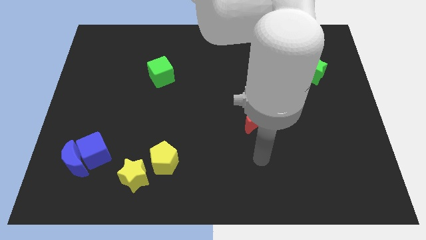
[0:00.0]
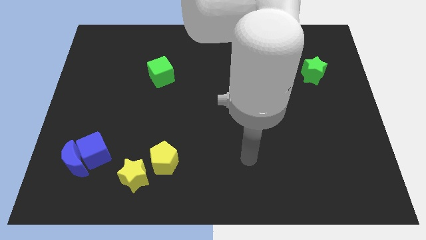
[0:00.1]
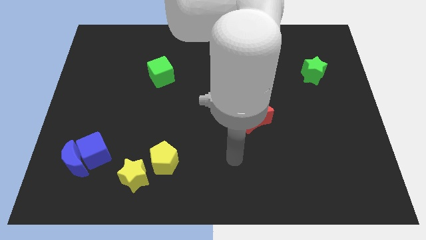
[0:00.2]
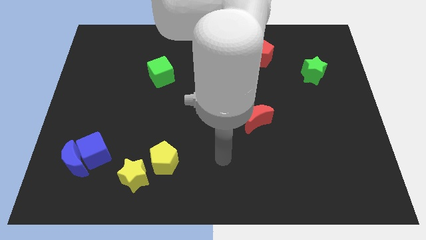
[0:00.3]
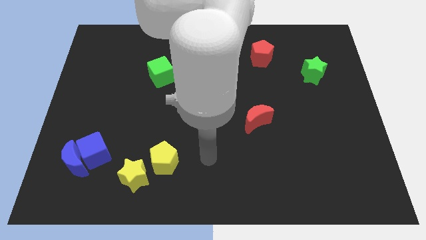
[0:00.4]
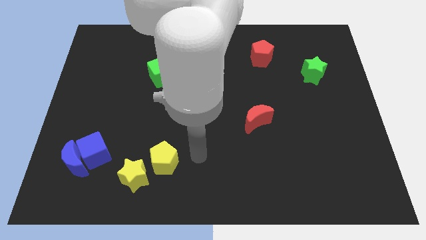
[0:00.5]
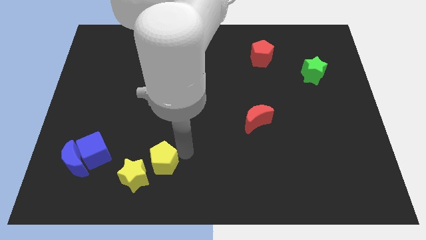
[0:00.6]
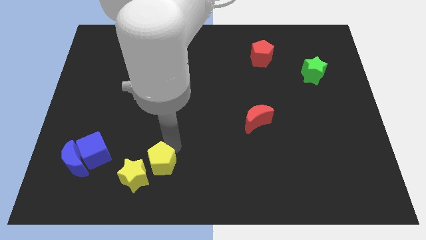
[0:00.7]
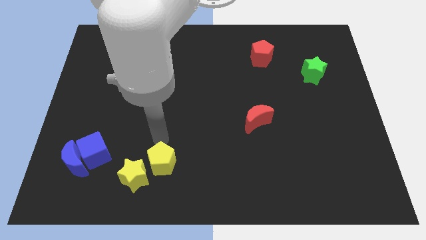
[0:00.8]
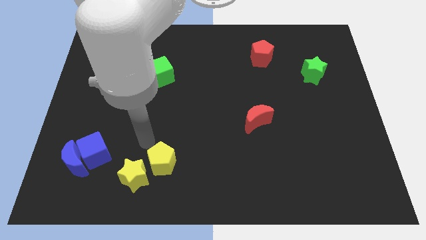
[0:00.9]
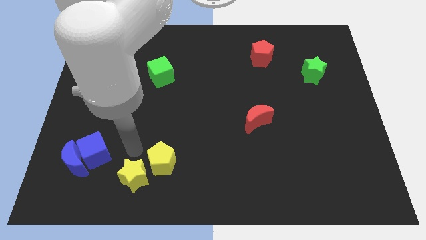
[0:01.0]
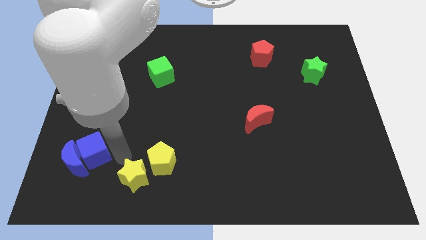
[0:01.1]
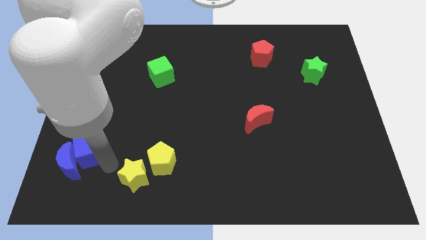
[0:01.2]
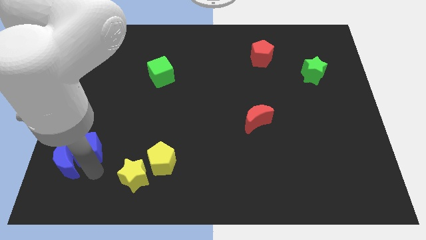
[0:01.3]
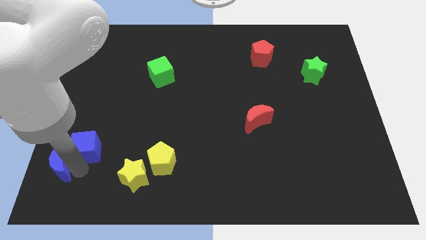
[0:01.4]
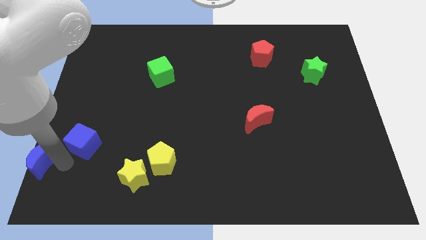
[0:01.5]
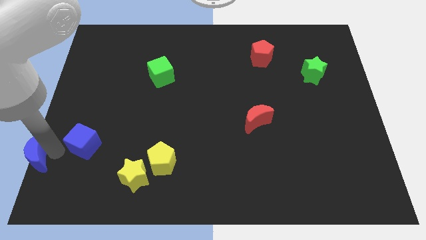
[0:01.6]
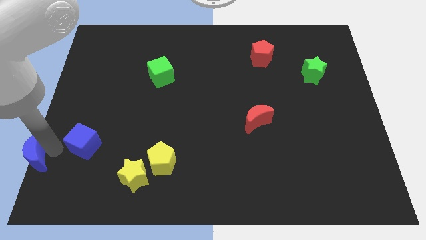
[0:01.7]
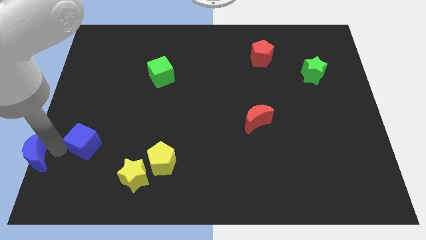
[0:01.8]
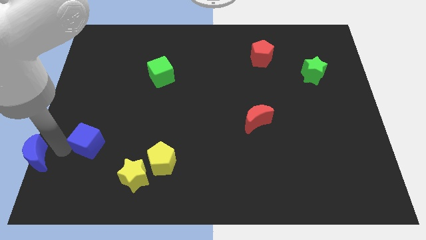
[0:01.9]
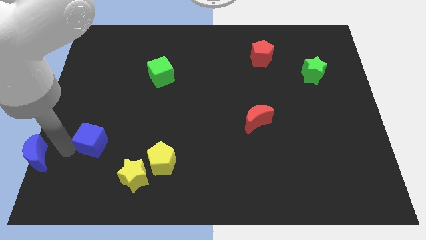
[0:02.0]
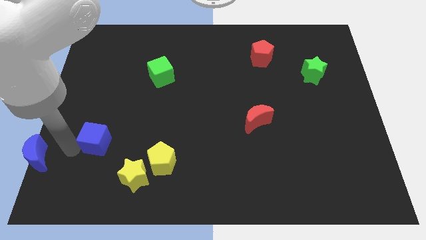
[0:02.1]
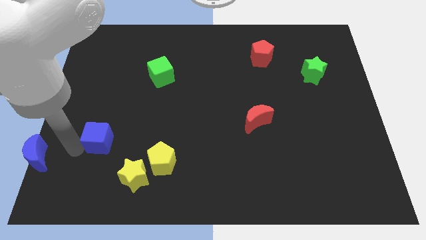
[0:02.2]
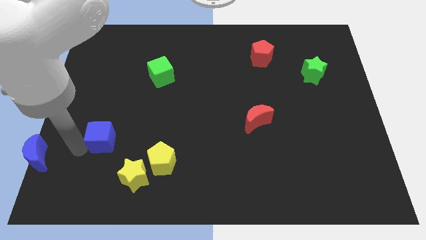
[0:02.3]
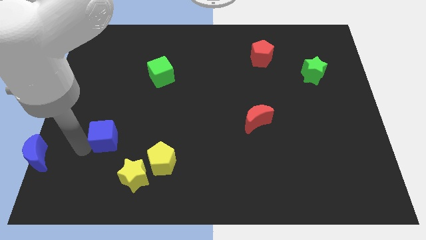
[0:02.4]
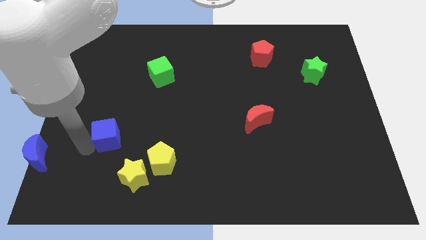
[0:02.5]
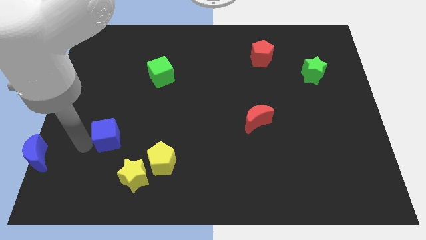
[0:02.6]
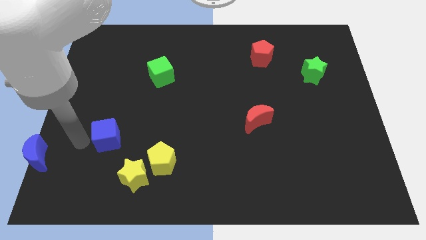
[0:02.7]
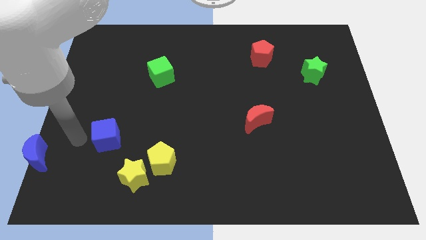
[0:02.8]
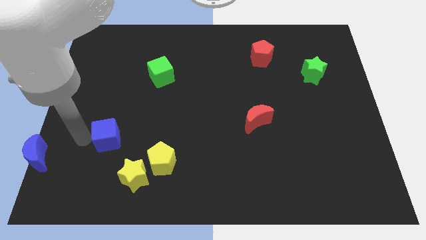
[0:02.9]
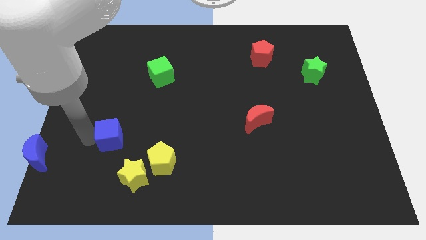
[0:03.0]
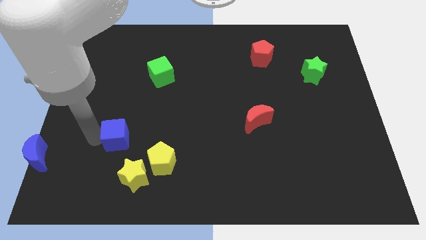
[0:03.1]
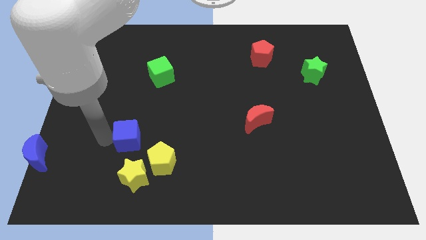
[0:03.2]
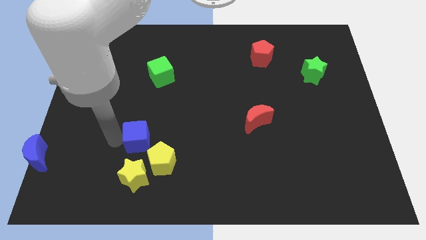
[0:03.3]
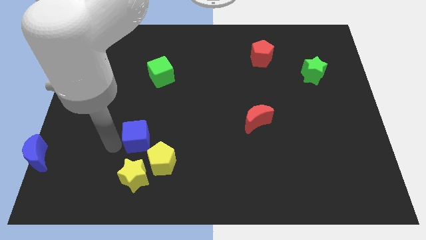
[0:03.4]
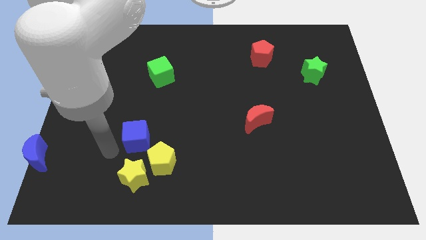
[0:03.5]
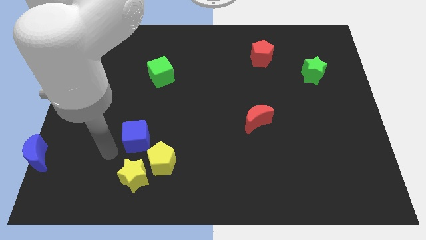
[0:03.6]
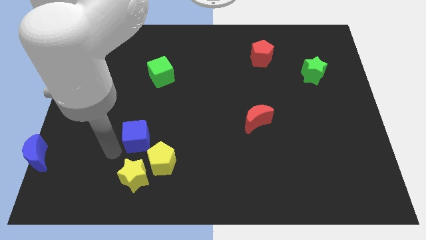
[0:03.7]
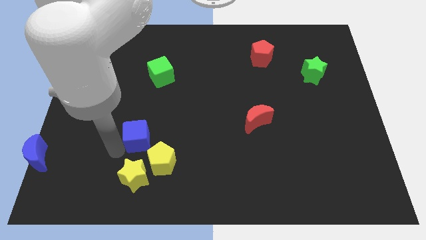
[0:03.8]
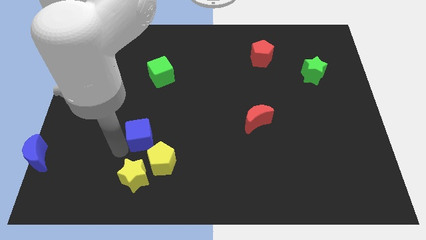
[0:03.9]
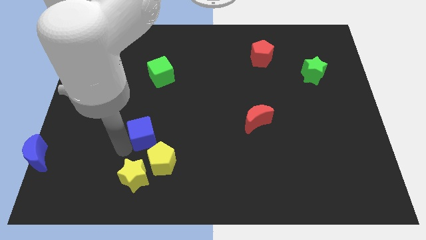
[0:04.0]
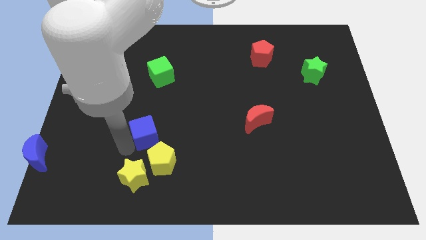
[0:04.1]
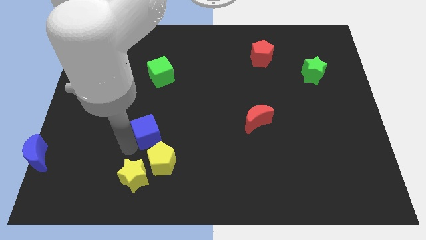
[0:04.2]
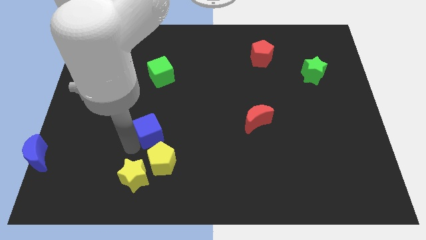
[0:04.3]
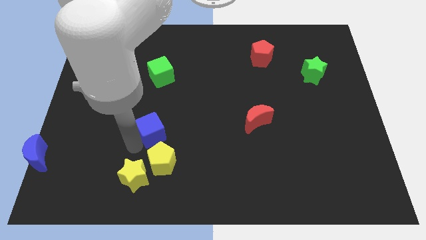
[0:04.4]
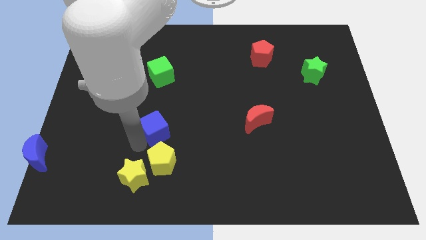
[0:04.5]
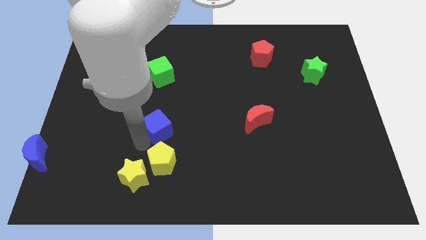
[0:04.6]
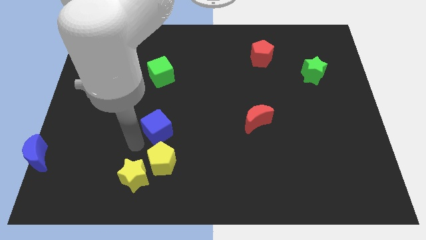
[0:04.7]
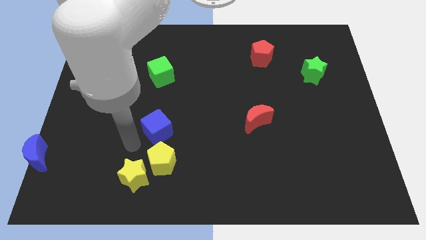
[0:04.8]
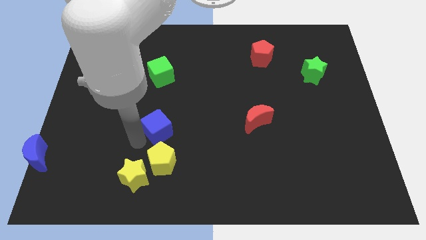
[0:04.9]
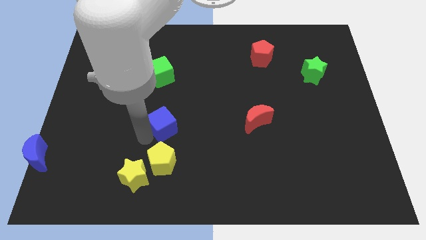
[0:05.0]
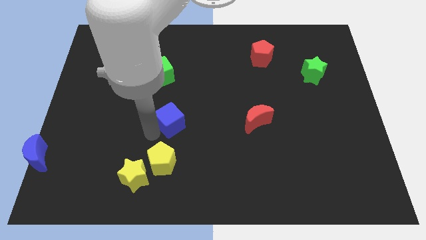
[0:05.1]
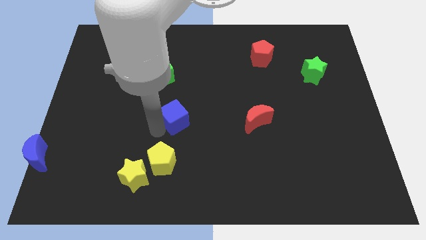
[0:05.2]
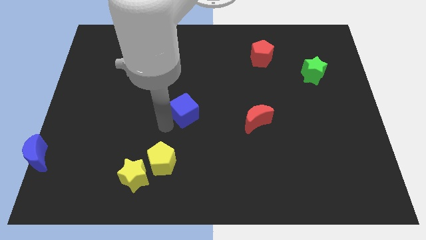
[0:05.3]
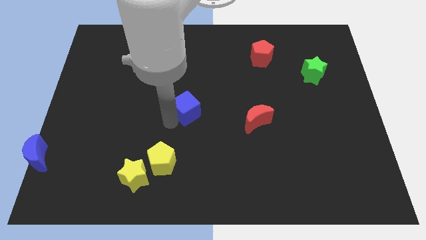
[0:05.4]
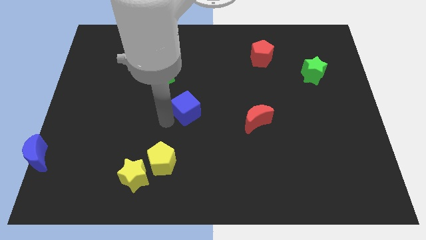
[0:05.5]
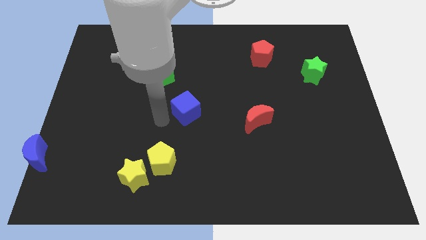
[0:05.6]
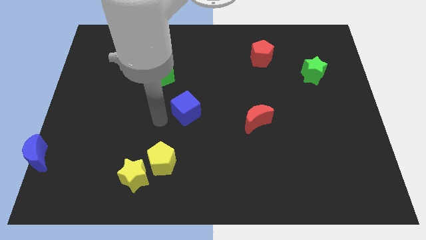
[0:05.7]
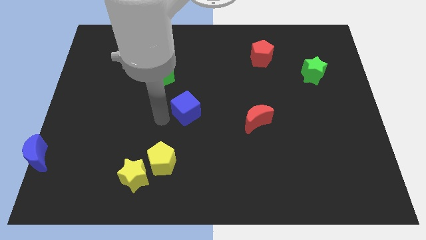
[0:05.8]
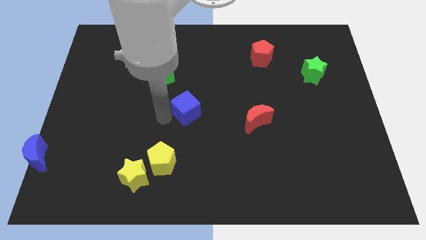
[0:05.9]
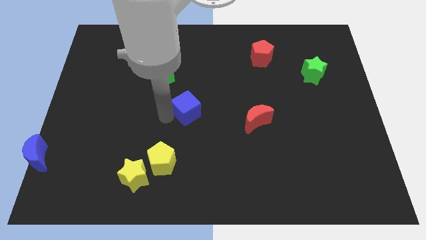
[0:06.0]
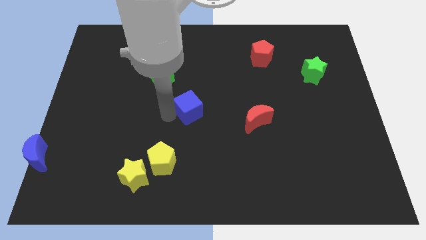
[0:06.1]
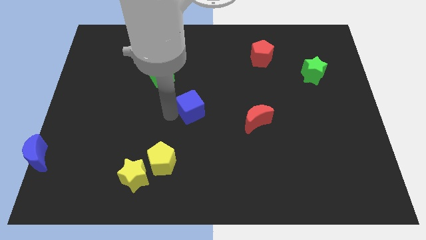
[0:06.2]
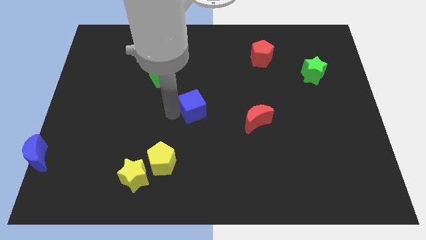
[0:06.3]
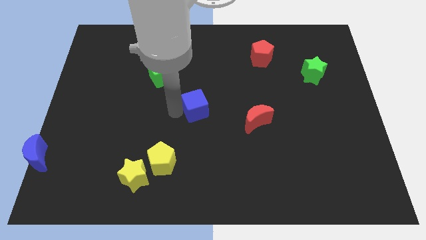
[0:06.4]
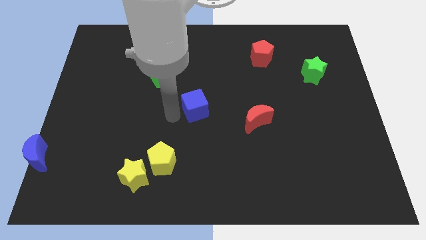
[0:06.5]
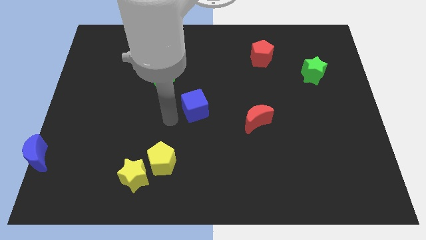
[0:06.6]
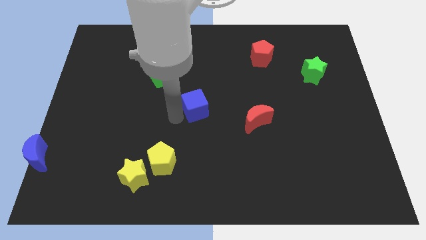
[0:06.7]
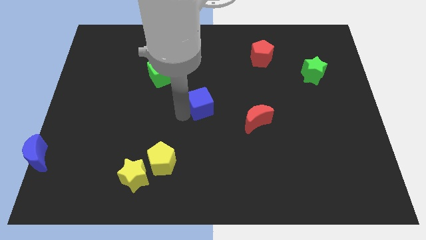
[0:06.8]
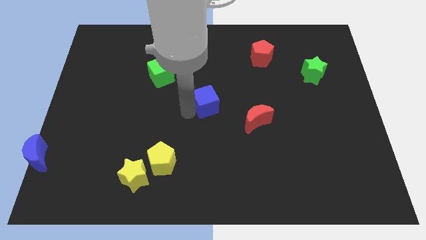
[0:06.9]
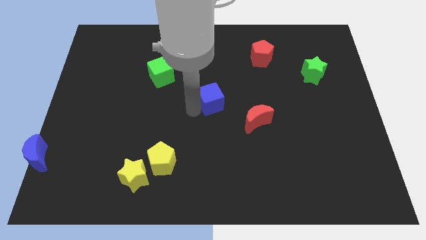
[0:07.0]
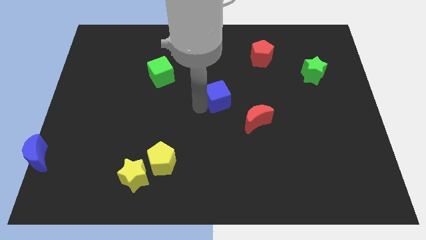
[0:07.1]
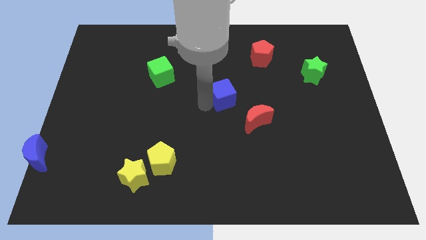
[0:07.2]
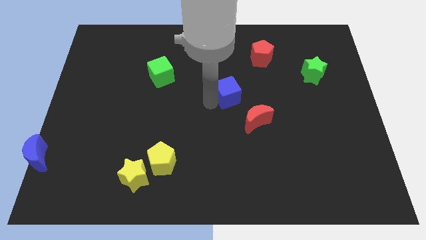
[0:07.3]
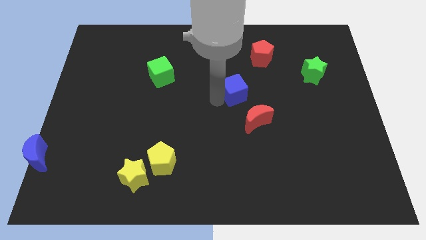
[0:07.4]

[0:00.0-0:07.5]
move the blue cube to the top of the red moon
